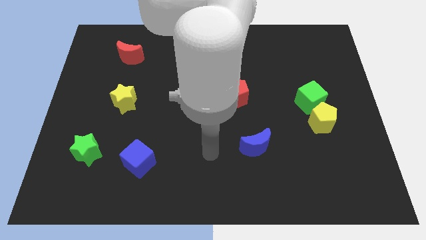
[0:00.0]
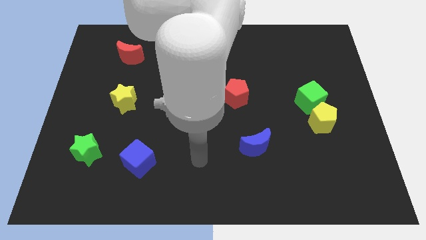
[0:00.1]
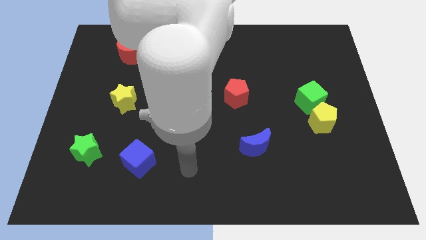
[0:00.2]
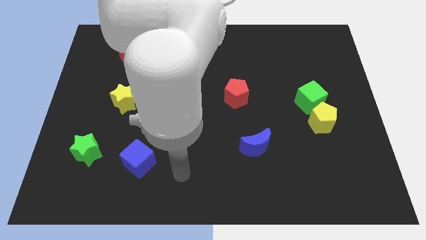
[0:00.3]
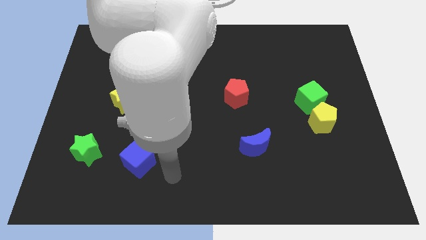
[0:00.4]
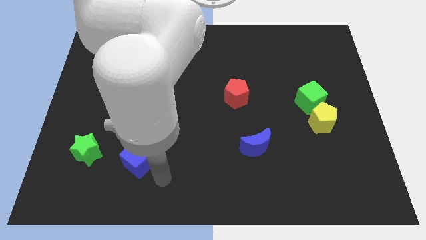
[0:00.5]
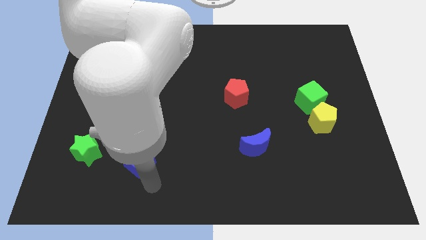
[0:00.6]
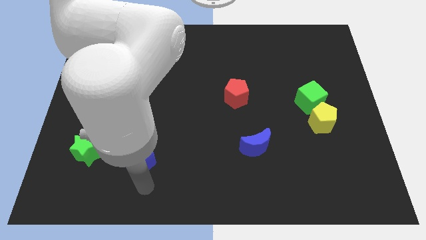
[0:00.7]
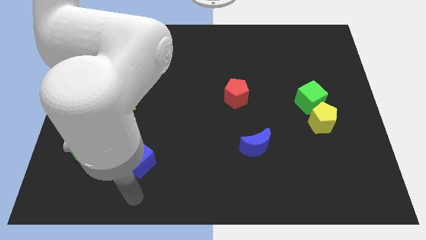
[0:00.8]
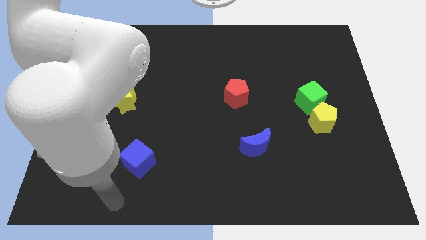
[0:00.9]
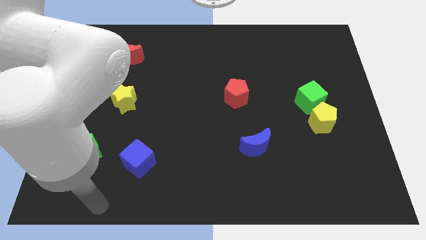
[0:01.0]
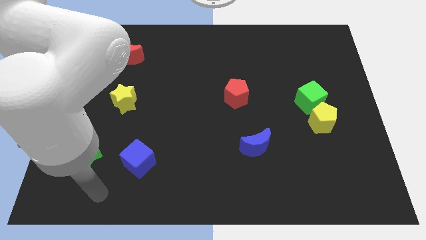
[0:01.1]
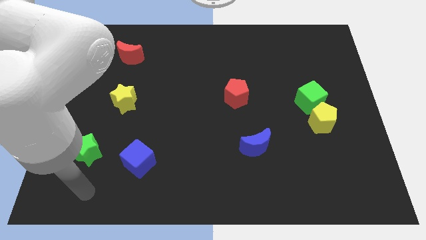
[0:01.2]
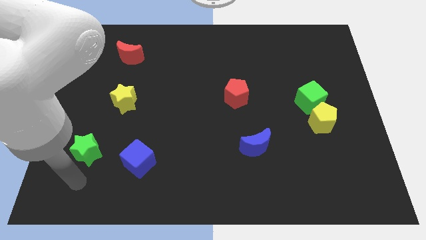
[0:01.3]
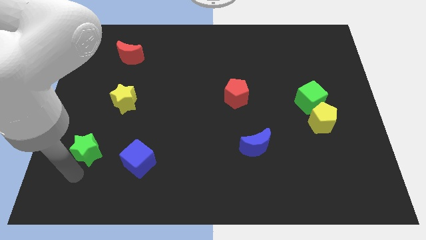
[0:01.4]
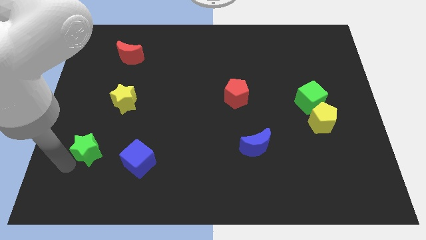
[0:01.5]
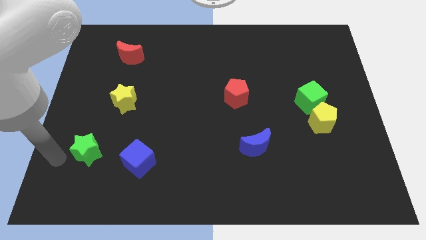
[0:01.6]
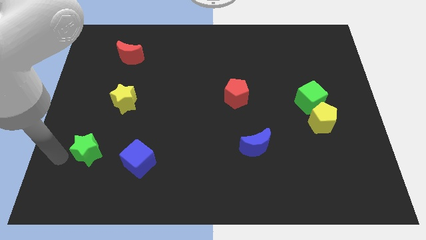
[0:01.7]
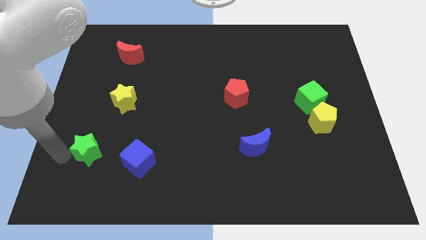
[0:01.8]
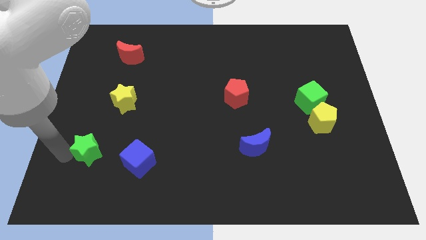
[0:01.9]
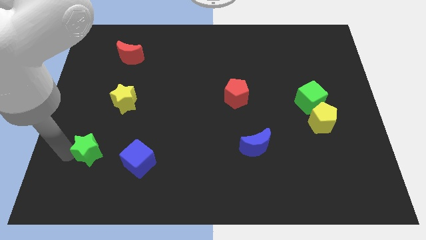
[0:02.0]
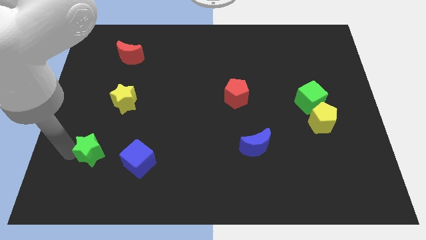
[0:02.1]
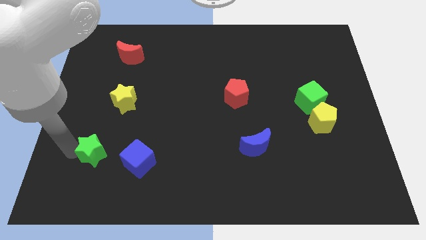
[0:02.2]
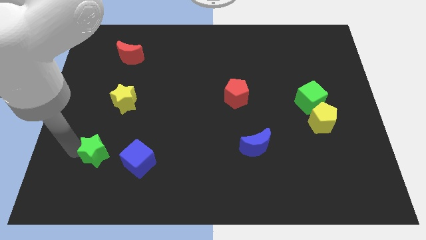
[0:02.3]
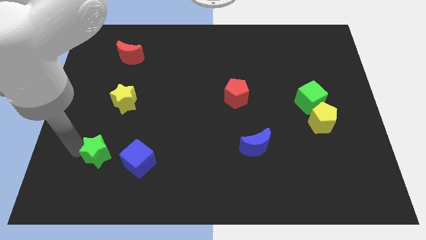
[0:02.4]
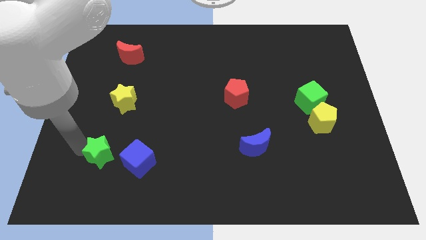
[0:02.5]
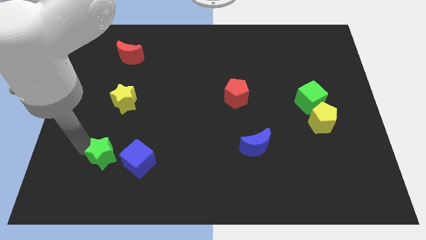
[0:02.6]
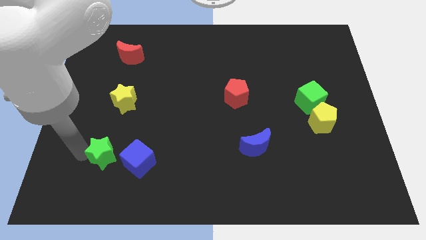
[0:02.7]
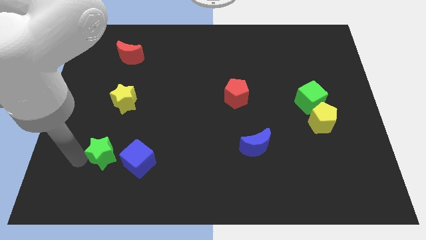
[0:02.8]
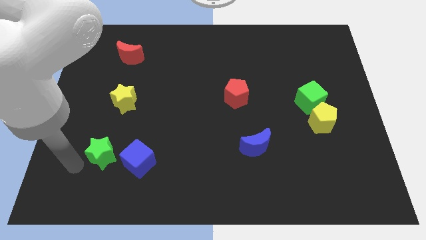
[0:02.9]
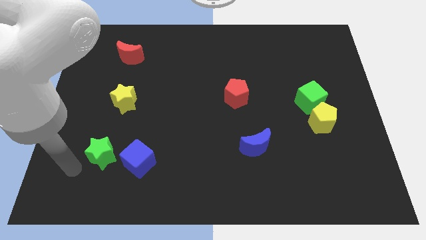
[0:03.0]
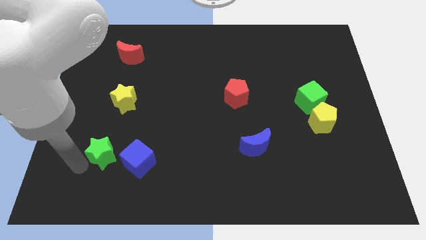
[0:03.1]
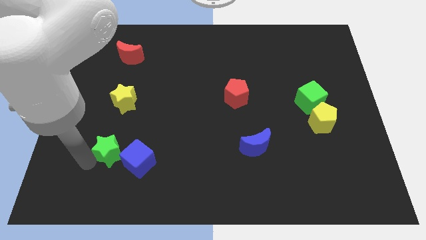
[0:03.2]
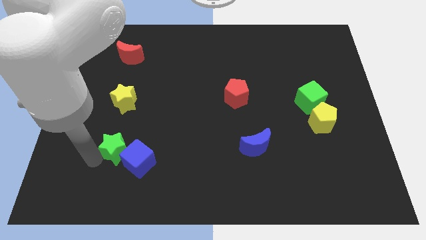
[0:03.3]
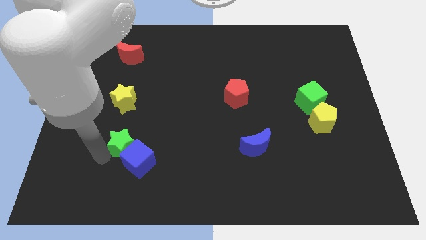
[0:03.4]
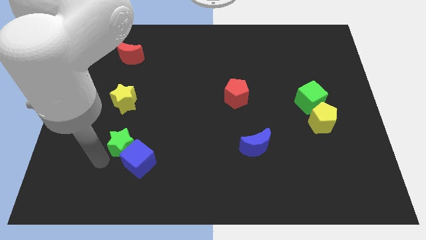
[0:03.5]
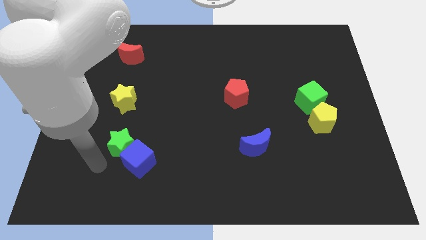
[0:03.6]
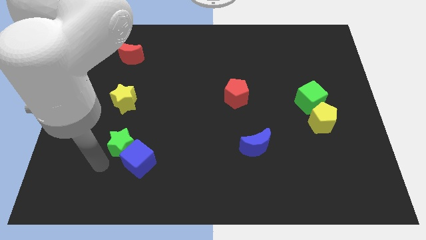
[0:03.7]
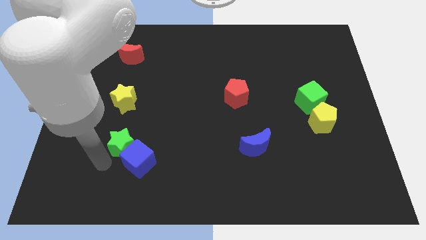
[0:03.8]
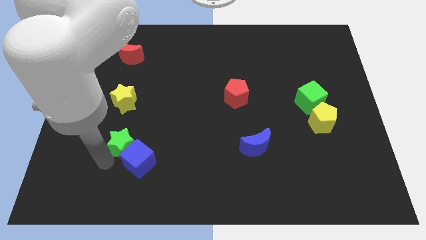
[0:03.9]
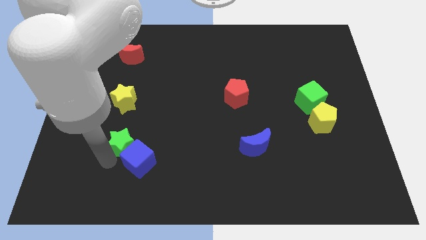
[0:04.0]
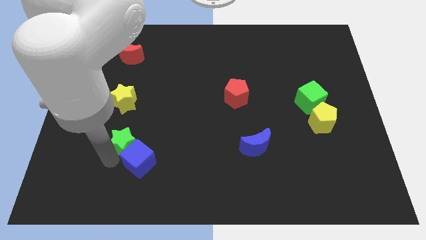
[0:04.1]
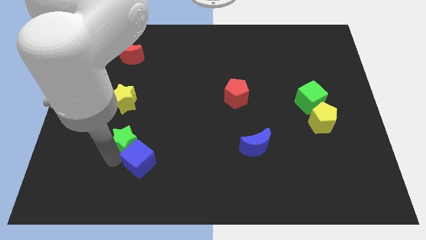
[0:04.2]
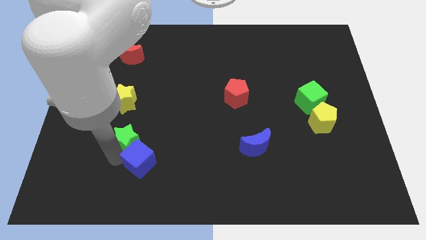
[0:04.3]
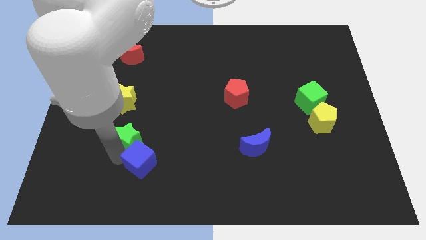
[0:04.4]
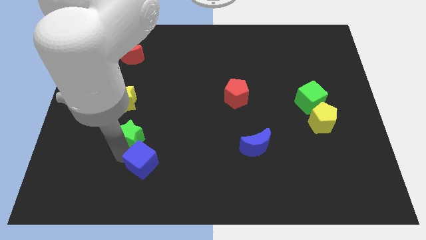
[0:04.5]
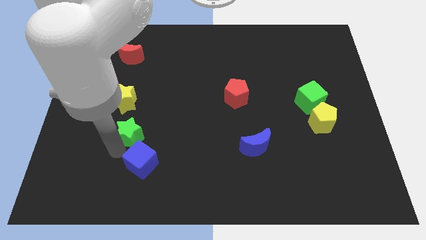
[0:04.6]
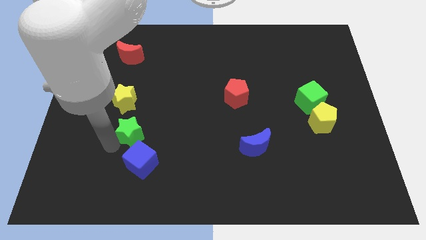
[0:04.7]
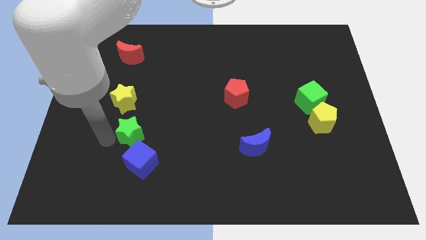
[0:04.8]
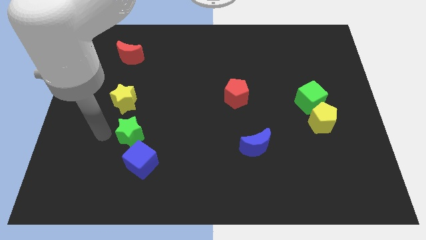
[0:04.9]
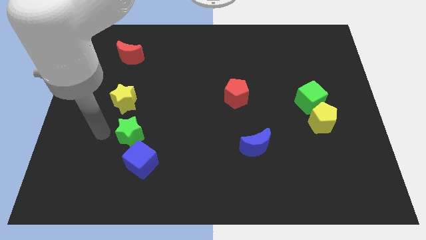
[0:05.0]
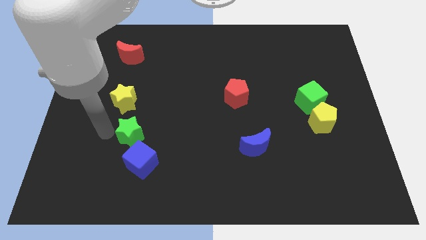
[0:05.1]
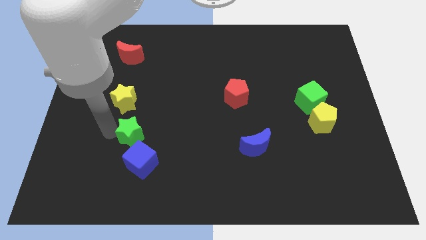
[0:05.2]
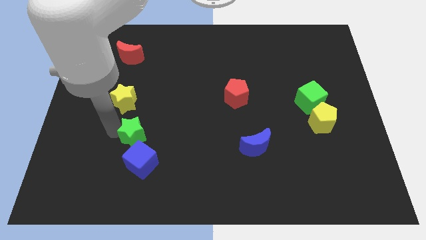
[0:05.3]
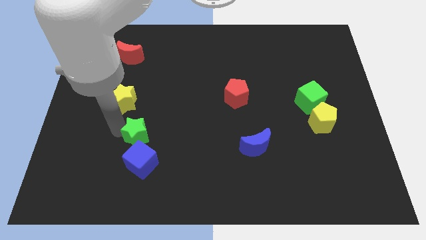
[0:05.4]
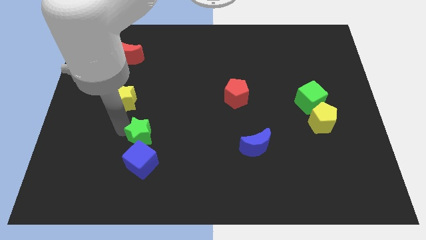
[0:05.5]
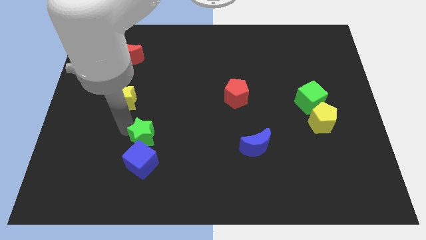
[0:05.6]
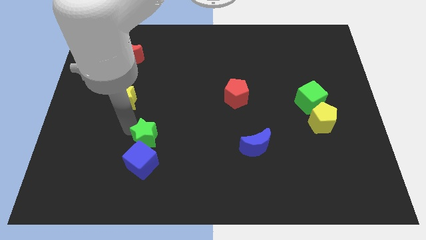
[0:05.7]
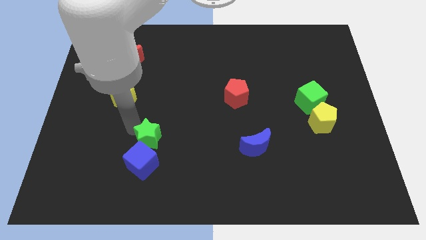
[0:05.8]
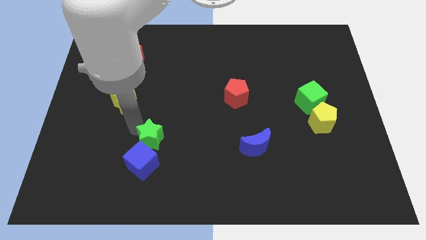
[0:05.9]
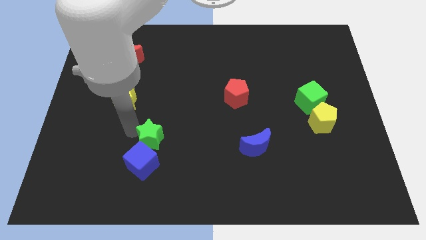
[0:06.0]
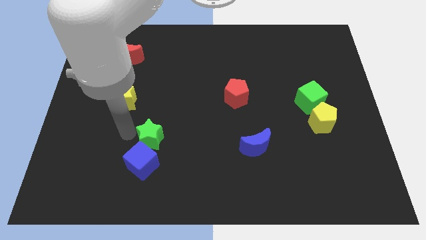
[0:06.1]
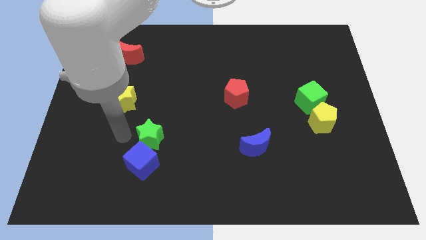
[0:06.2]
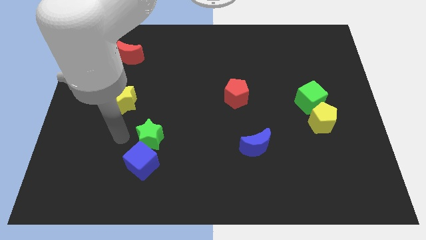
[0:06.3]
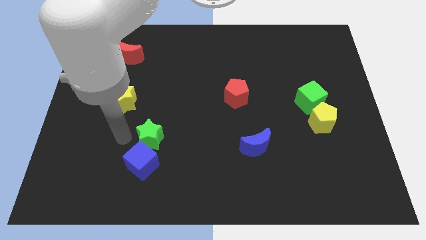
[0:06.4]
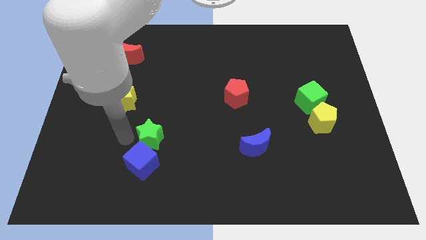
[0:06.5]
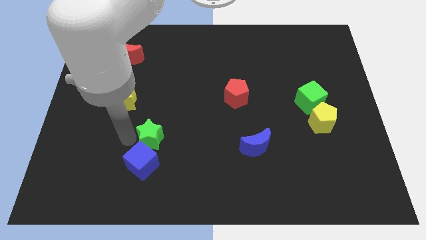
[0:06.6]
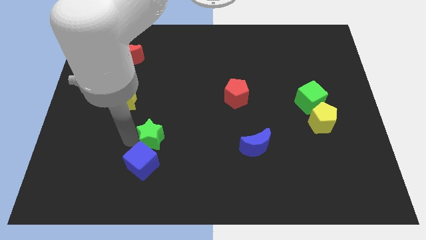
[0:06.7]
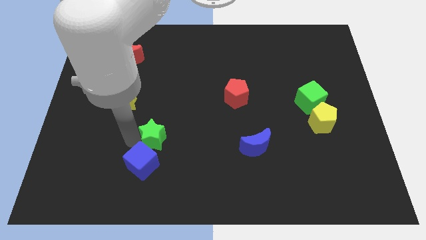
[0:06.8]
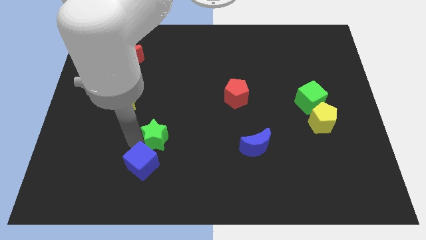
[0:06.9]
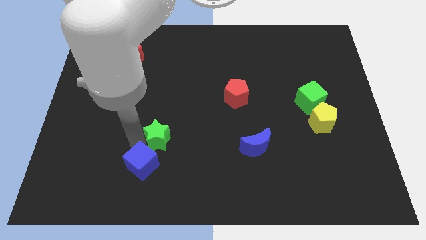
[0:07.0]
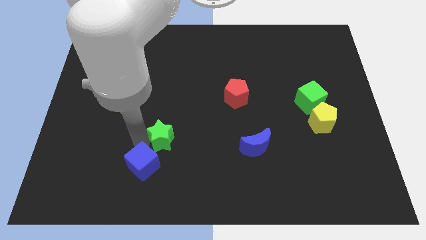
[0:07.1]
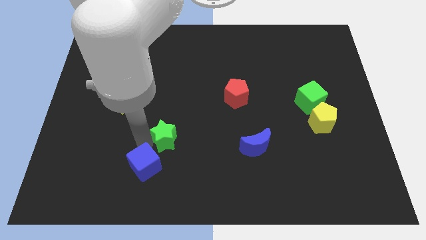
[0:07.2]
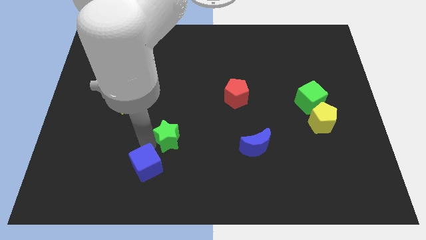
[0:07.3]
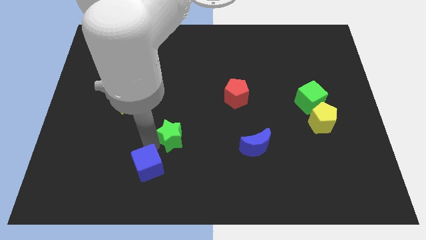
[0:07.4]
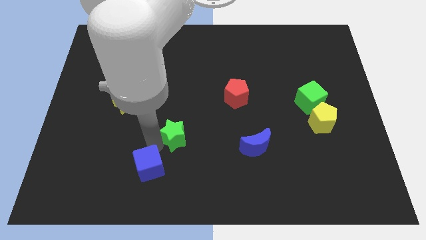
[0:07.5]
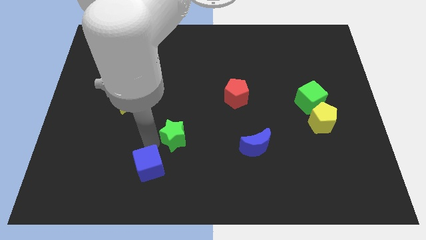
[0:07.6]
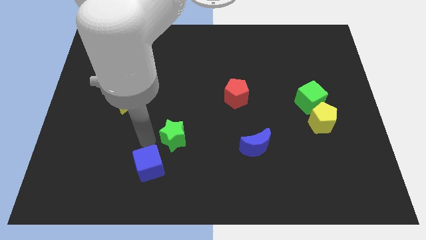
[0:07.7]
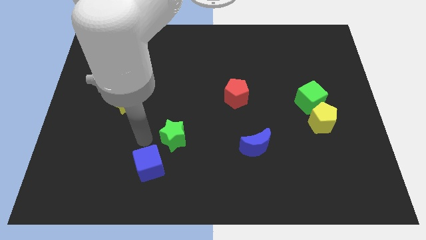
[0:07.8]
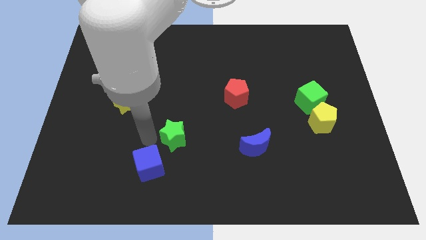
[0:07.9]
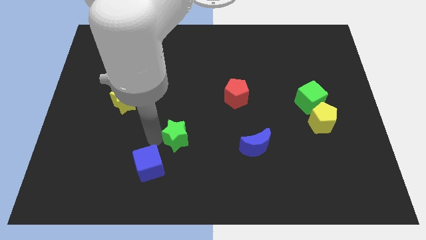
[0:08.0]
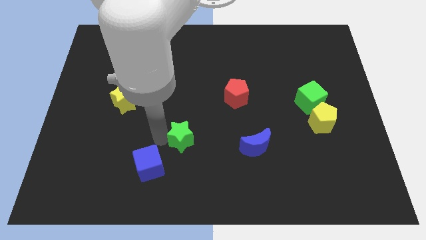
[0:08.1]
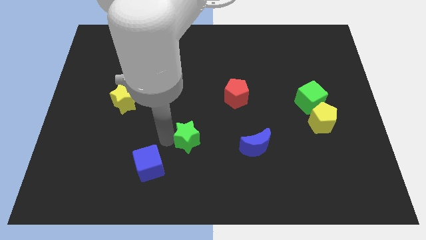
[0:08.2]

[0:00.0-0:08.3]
push the green star right
